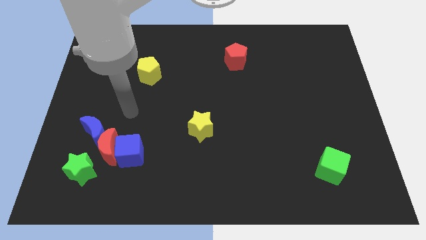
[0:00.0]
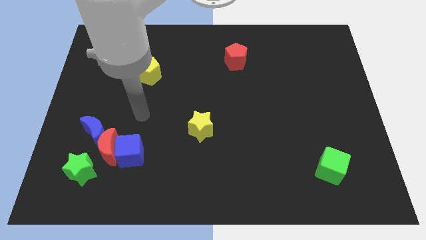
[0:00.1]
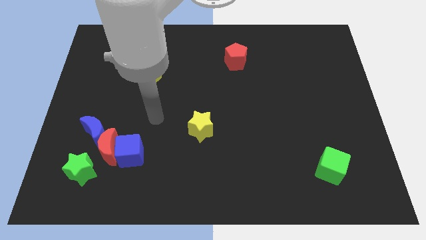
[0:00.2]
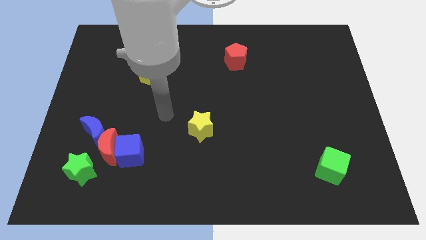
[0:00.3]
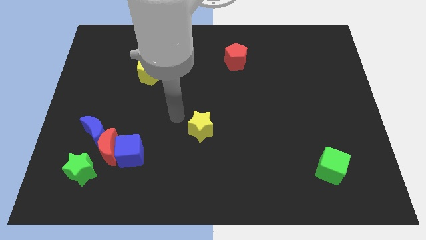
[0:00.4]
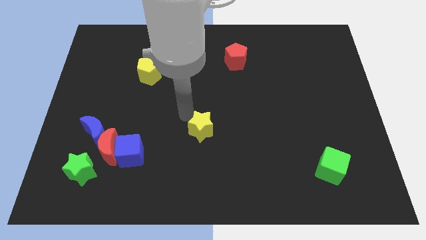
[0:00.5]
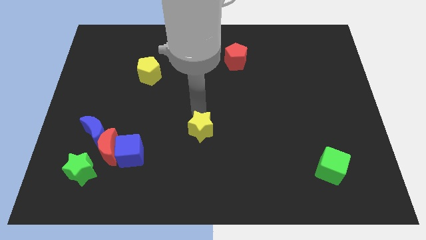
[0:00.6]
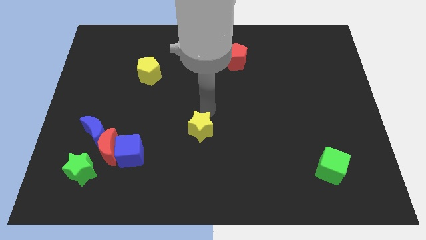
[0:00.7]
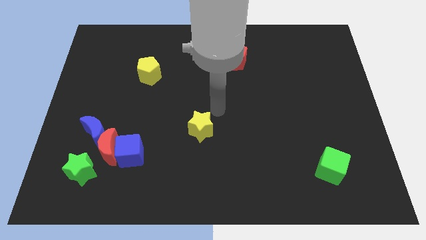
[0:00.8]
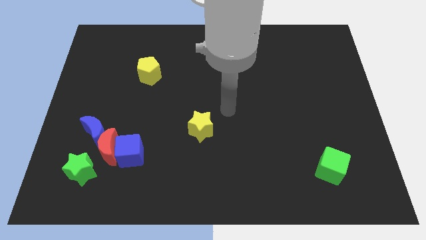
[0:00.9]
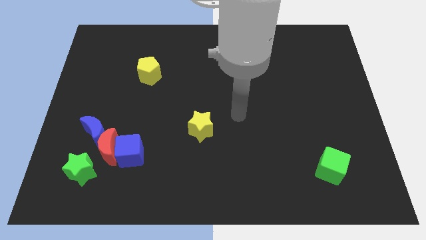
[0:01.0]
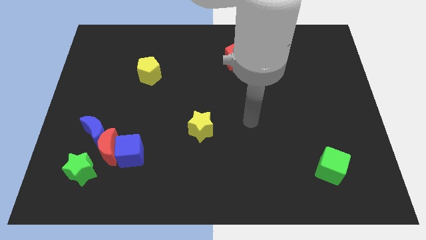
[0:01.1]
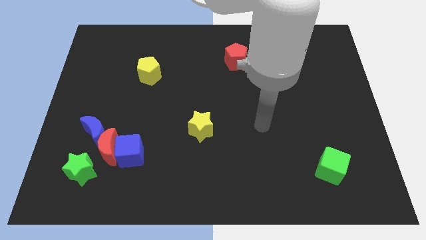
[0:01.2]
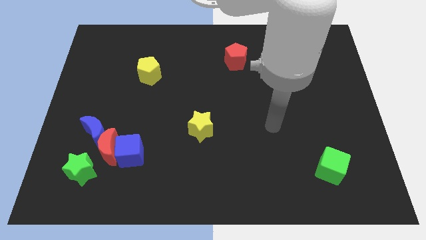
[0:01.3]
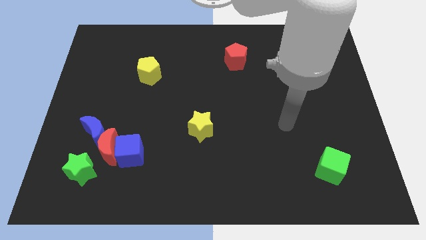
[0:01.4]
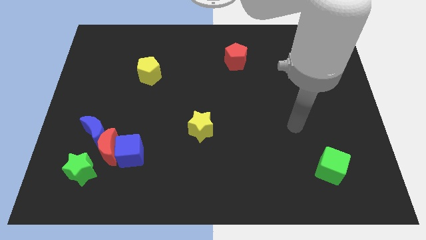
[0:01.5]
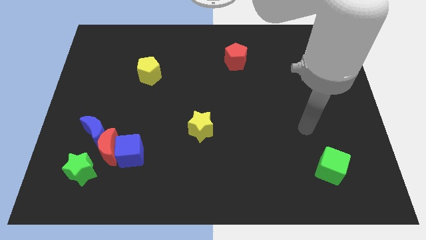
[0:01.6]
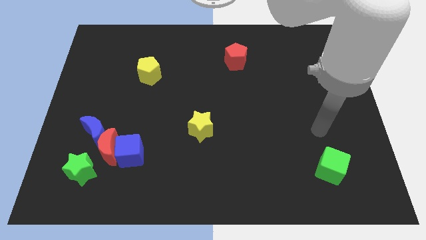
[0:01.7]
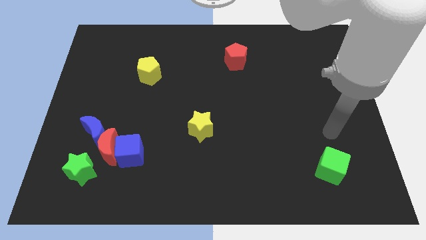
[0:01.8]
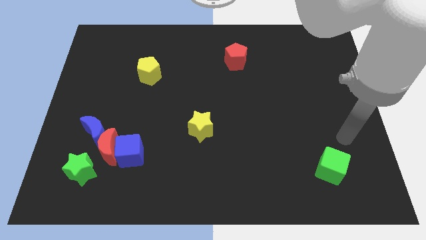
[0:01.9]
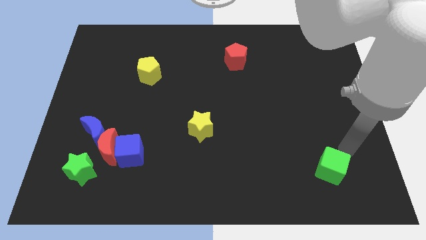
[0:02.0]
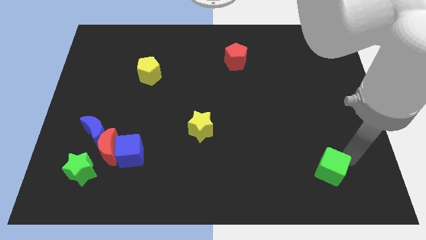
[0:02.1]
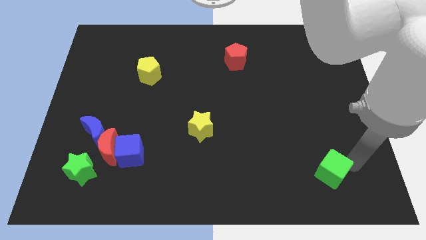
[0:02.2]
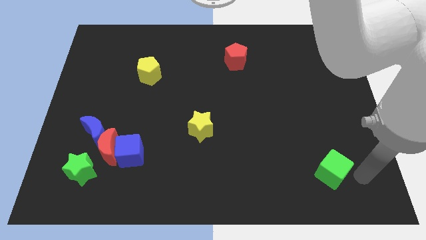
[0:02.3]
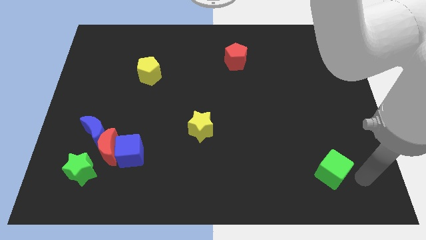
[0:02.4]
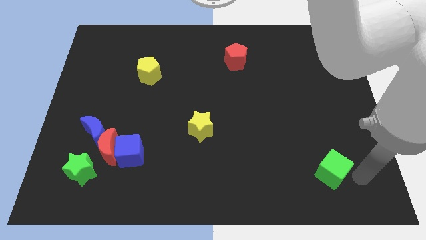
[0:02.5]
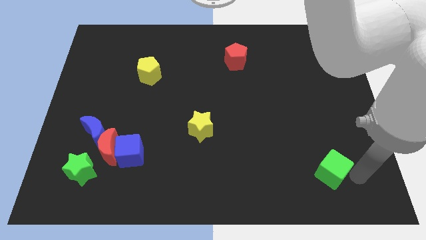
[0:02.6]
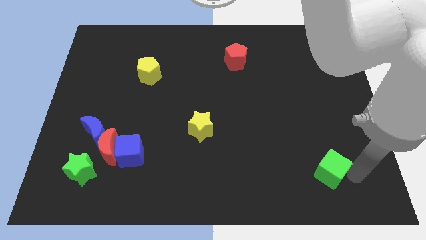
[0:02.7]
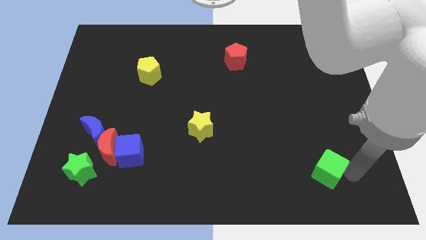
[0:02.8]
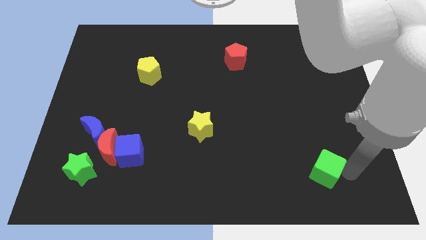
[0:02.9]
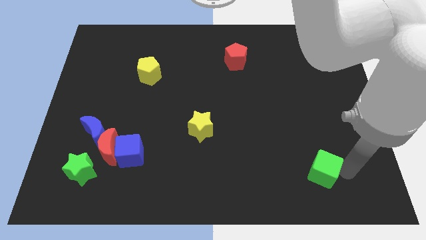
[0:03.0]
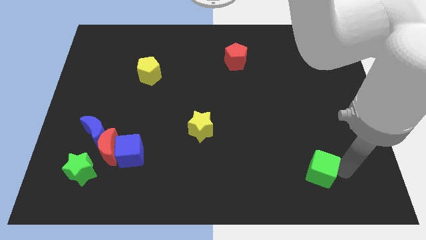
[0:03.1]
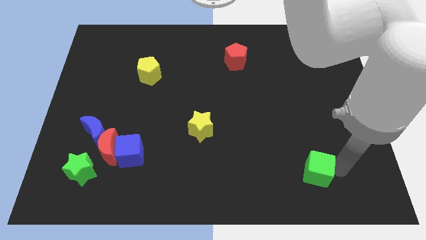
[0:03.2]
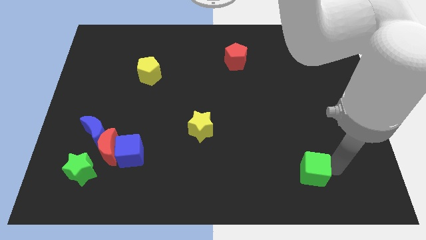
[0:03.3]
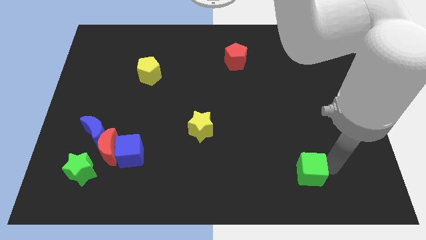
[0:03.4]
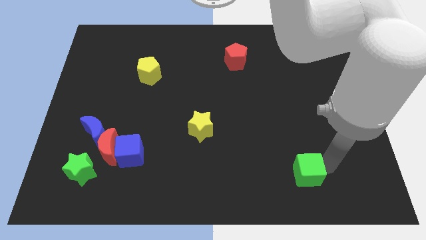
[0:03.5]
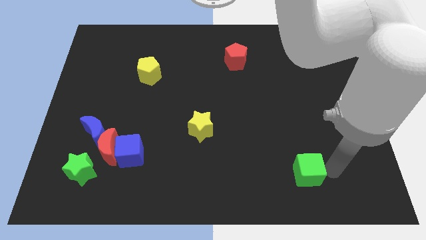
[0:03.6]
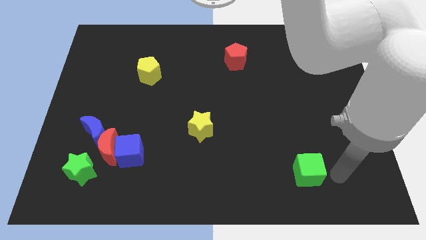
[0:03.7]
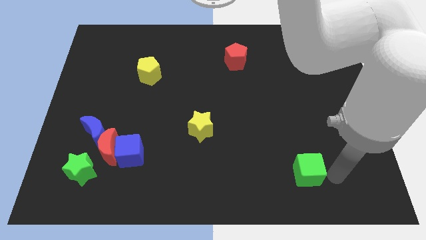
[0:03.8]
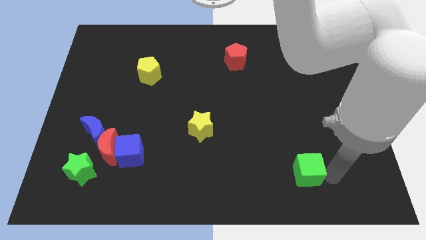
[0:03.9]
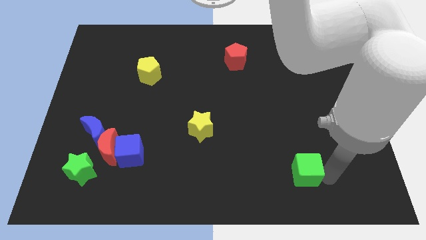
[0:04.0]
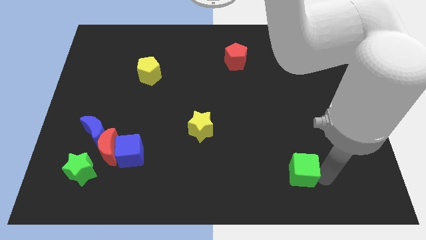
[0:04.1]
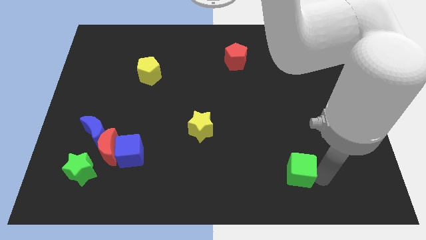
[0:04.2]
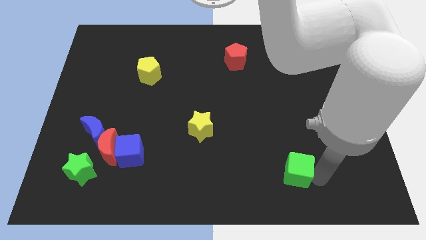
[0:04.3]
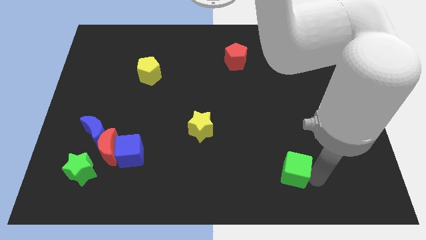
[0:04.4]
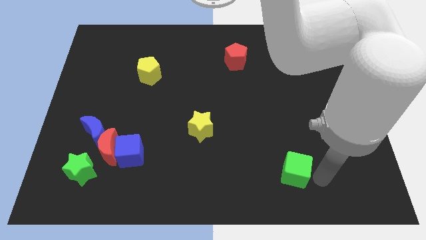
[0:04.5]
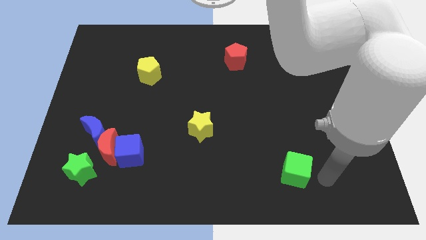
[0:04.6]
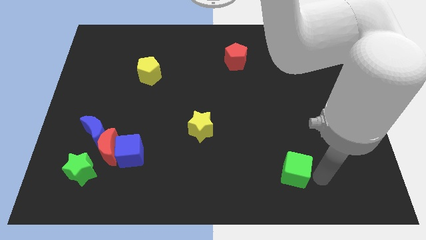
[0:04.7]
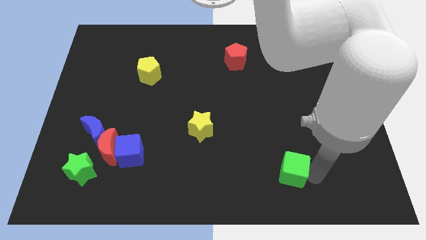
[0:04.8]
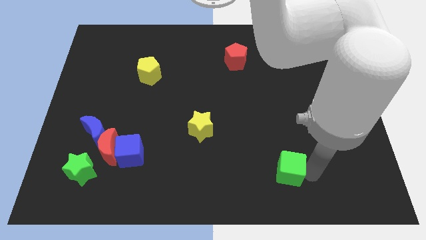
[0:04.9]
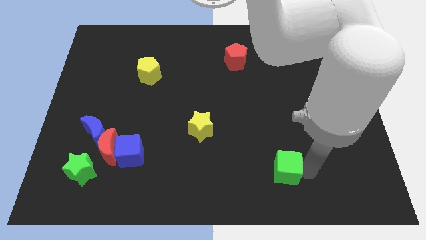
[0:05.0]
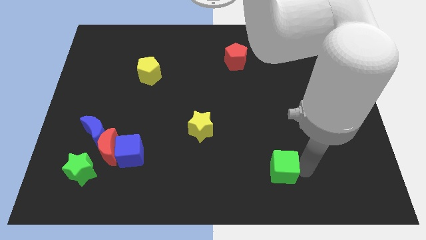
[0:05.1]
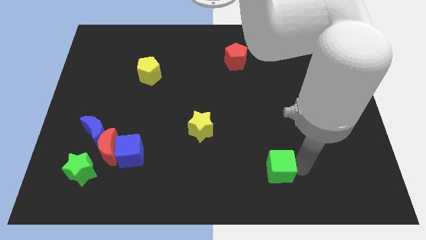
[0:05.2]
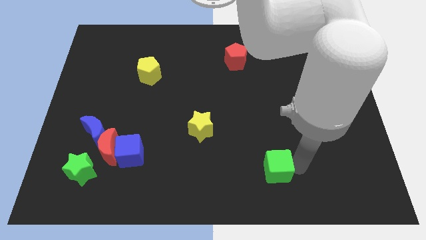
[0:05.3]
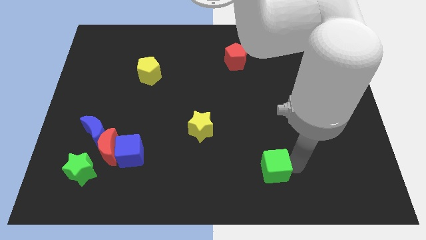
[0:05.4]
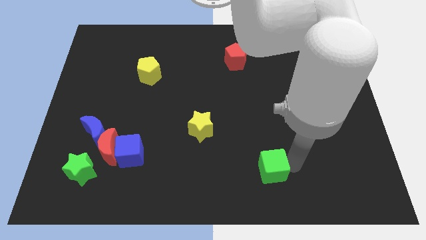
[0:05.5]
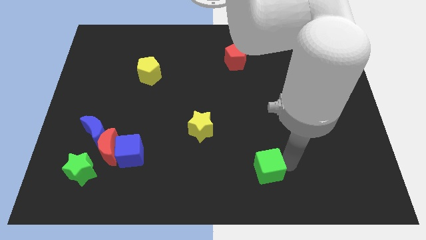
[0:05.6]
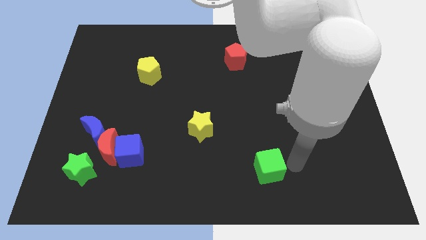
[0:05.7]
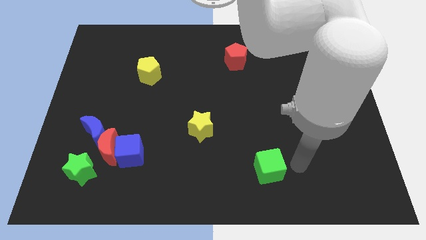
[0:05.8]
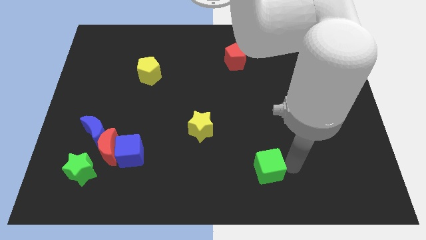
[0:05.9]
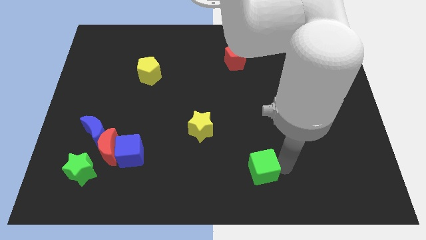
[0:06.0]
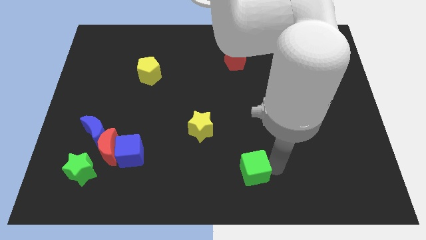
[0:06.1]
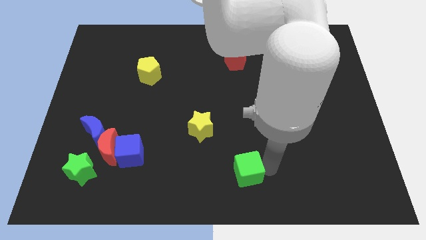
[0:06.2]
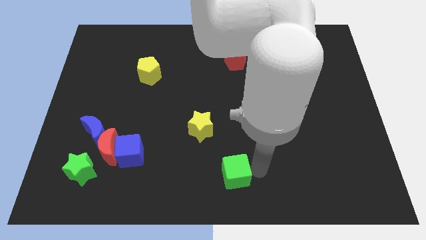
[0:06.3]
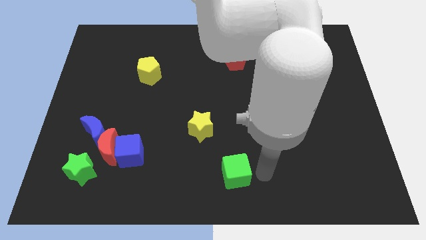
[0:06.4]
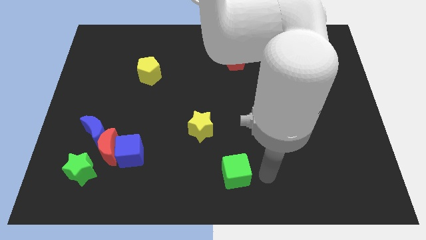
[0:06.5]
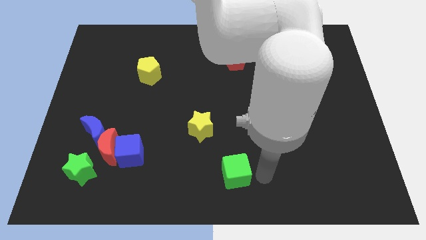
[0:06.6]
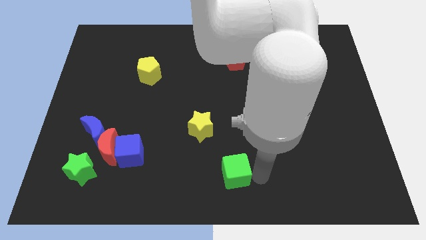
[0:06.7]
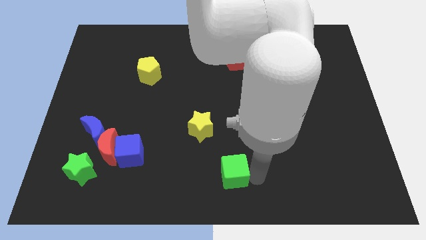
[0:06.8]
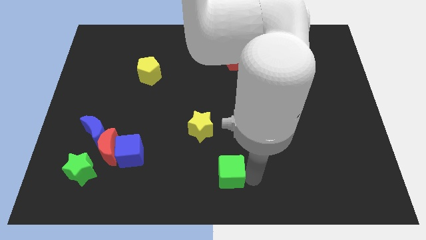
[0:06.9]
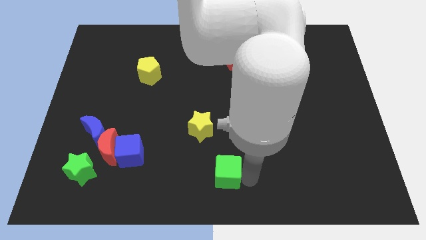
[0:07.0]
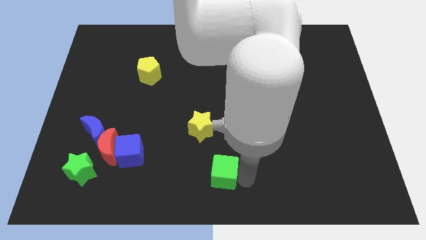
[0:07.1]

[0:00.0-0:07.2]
move the green cube to the bottom of the yellow star

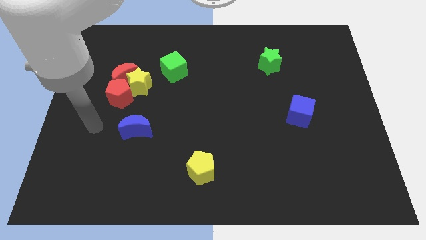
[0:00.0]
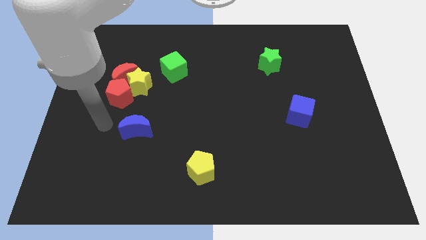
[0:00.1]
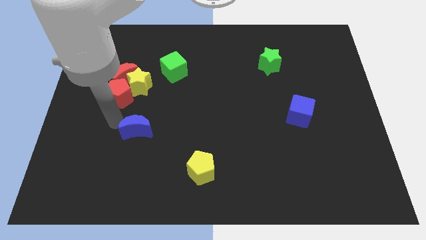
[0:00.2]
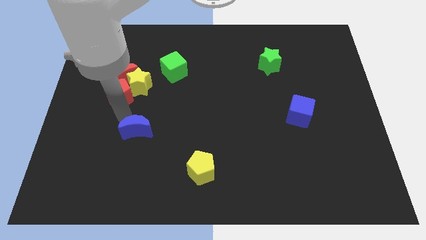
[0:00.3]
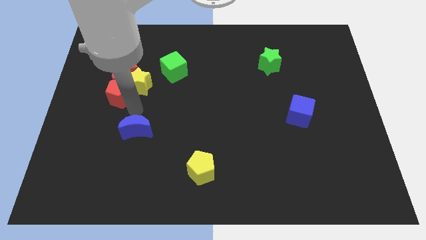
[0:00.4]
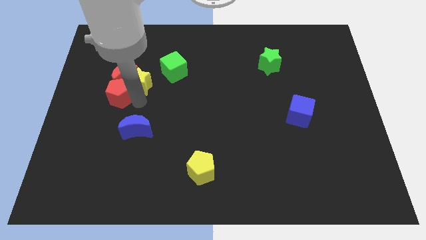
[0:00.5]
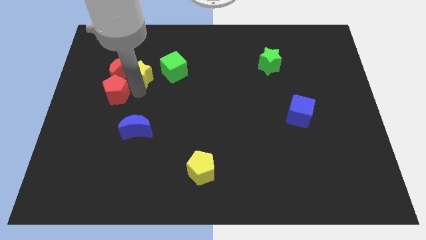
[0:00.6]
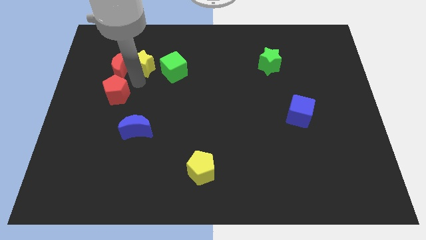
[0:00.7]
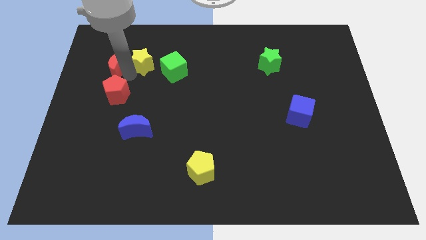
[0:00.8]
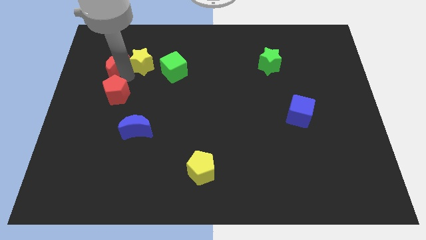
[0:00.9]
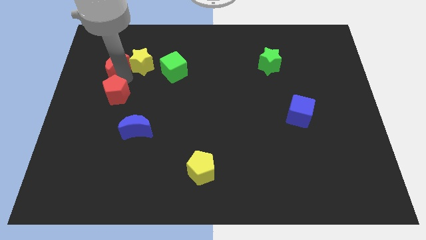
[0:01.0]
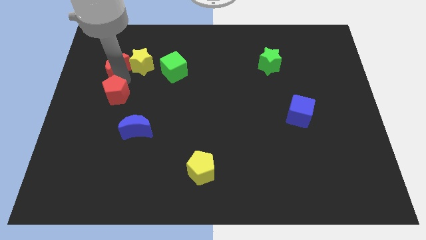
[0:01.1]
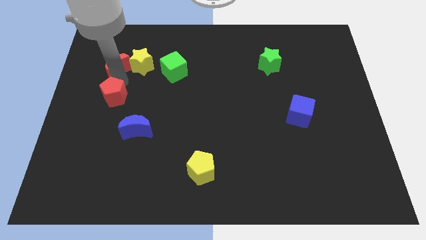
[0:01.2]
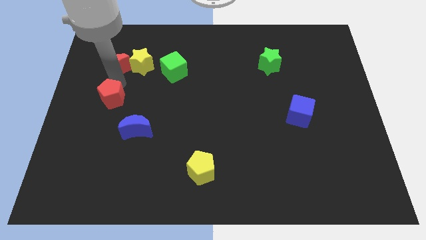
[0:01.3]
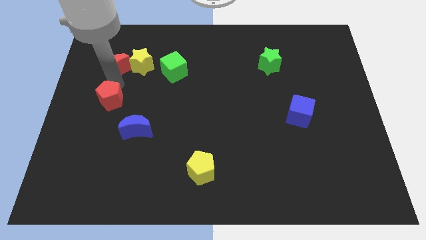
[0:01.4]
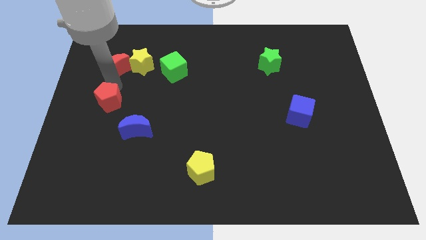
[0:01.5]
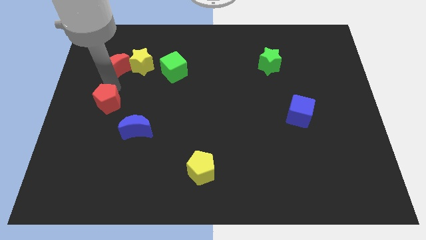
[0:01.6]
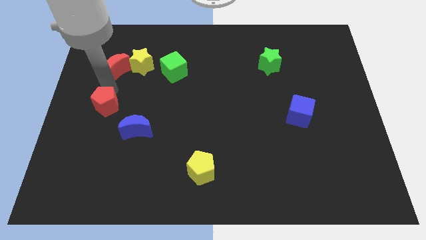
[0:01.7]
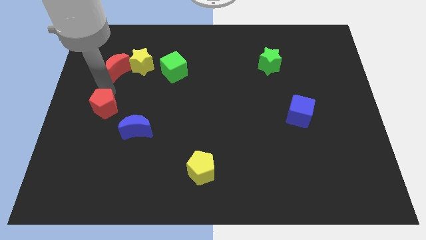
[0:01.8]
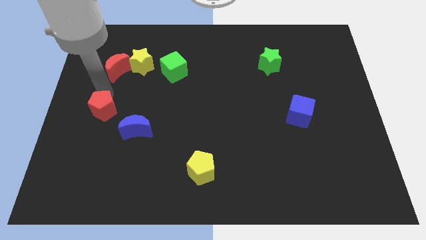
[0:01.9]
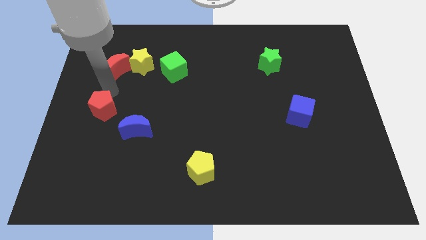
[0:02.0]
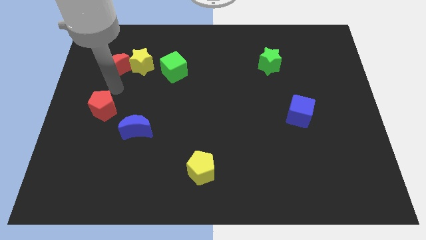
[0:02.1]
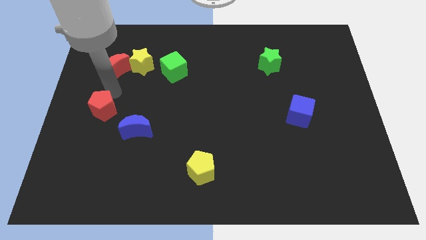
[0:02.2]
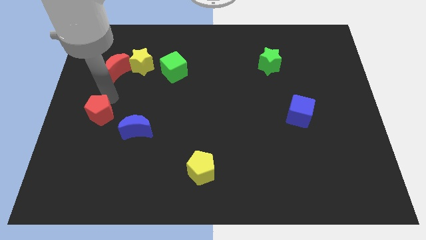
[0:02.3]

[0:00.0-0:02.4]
slide the red pentagon just left of the blue moon
